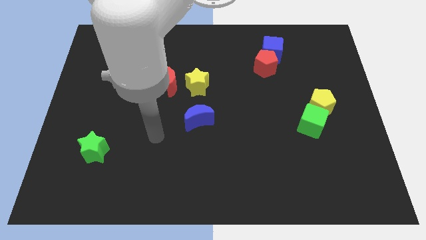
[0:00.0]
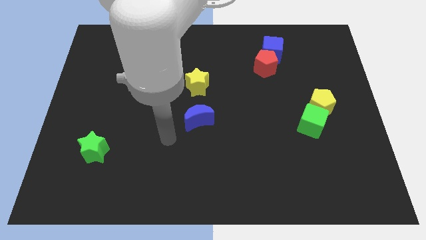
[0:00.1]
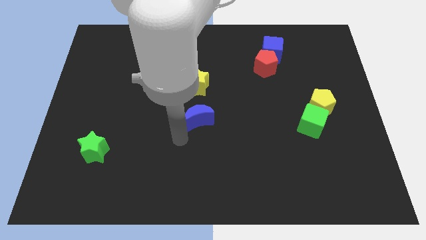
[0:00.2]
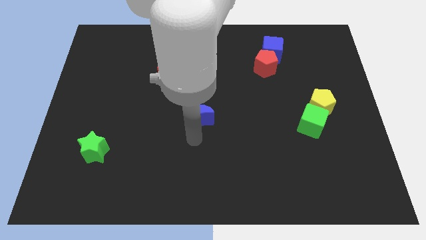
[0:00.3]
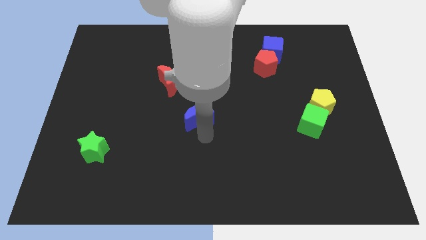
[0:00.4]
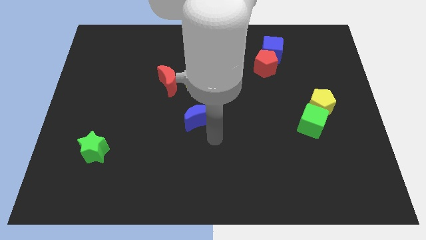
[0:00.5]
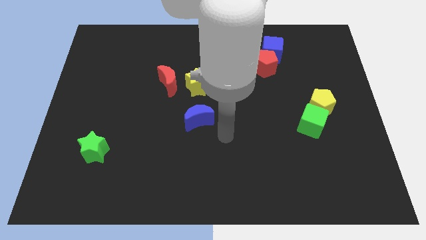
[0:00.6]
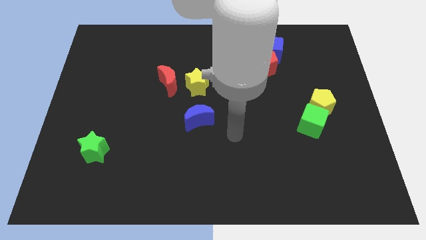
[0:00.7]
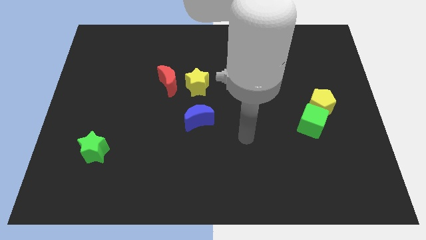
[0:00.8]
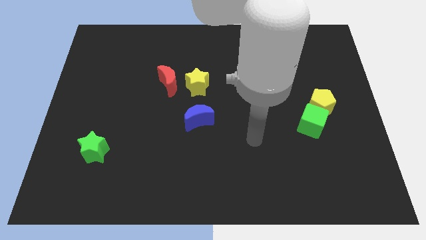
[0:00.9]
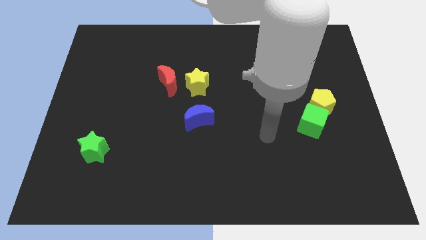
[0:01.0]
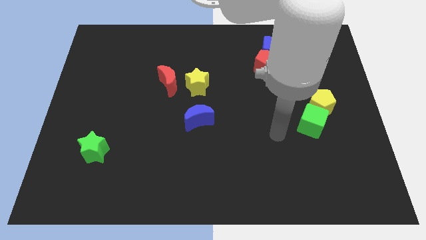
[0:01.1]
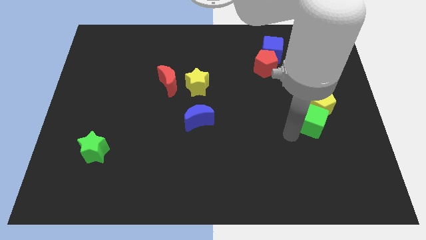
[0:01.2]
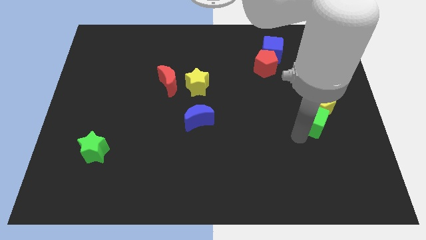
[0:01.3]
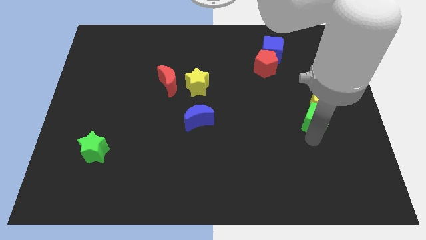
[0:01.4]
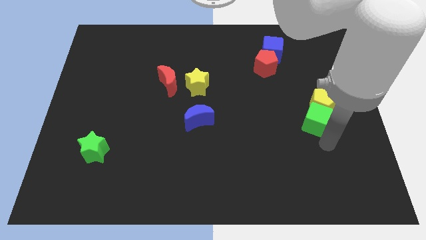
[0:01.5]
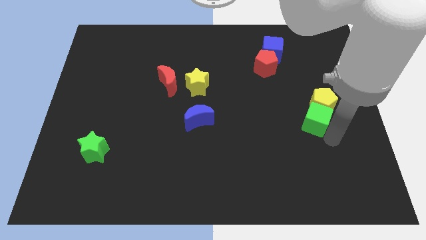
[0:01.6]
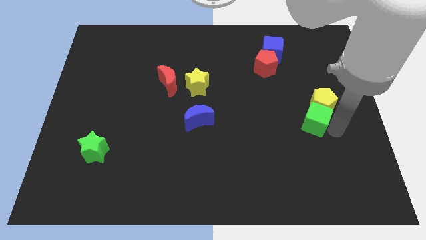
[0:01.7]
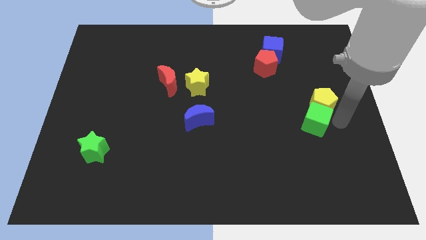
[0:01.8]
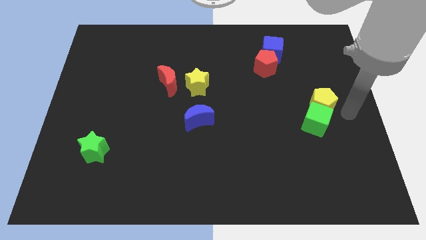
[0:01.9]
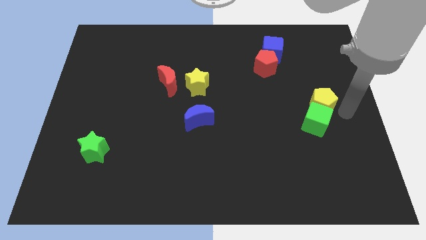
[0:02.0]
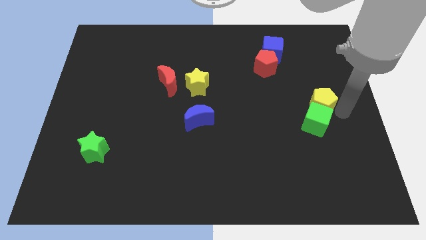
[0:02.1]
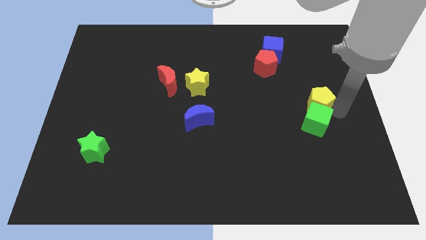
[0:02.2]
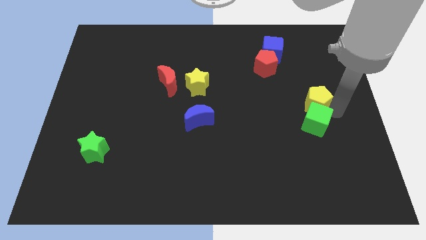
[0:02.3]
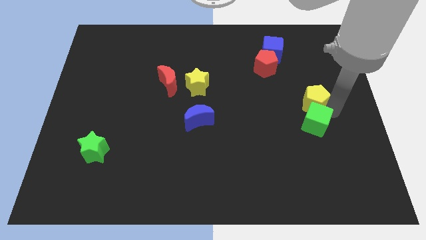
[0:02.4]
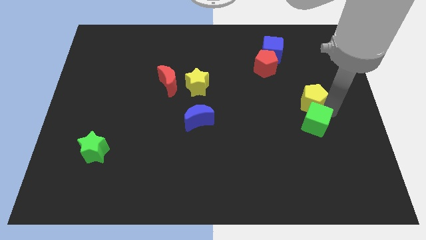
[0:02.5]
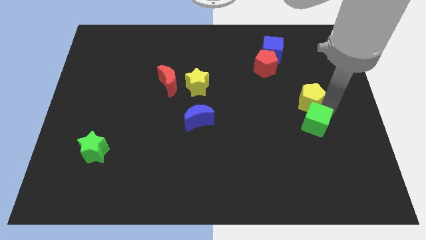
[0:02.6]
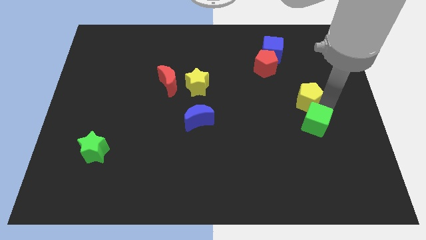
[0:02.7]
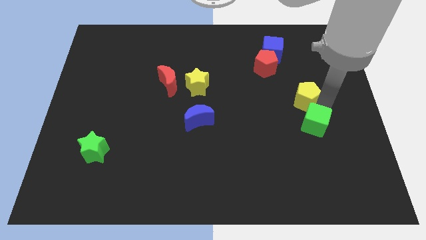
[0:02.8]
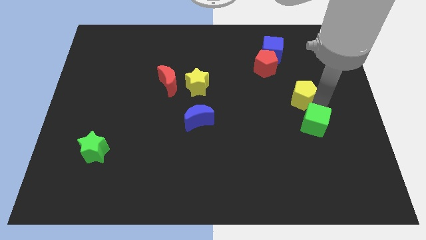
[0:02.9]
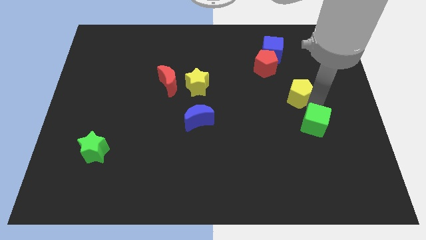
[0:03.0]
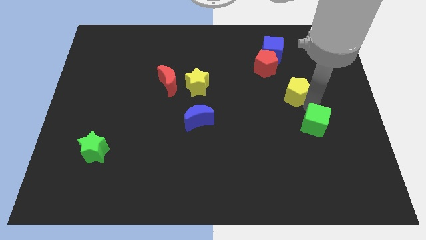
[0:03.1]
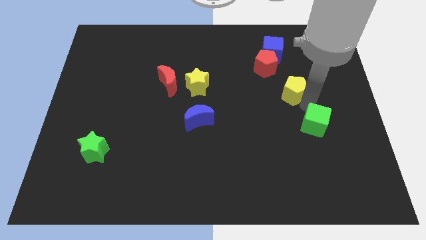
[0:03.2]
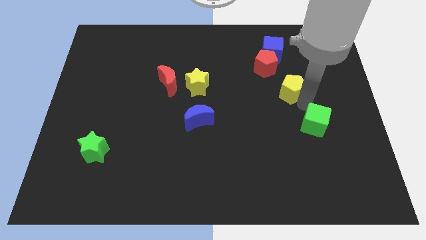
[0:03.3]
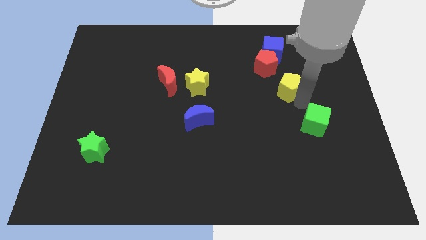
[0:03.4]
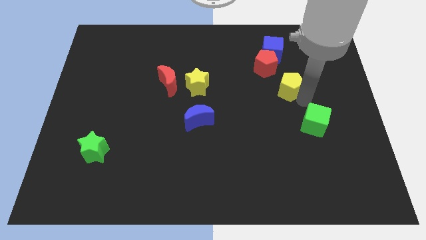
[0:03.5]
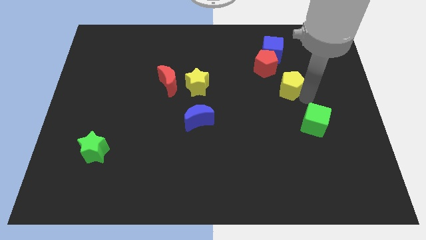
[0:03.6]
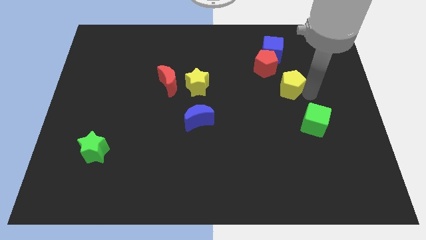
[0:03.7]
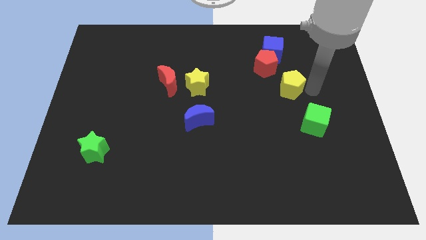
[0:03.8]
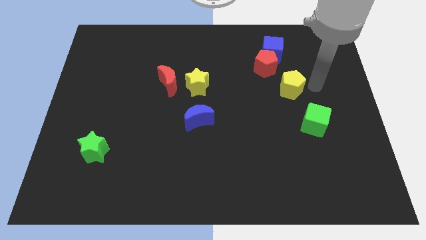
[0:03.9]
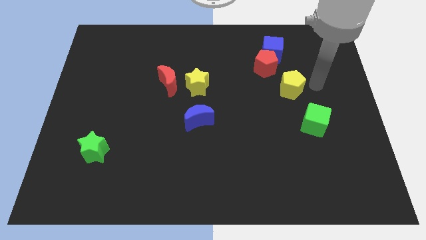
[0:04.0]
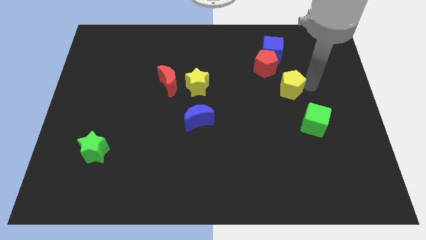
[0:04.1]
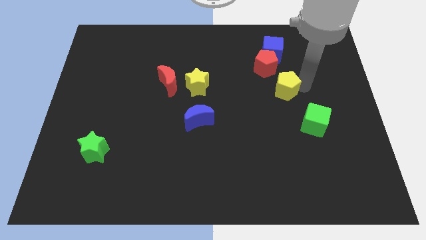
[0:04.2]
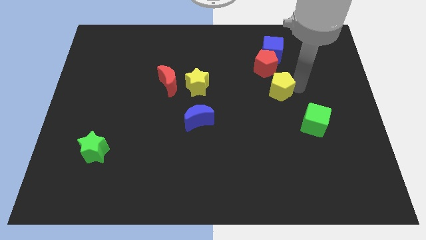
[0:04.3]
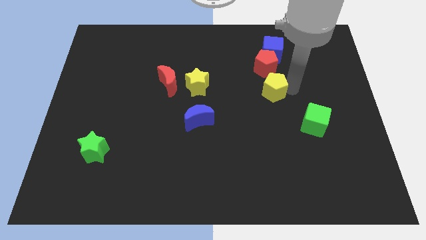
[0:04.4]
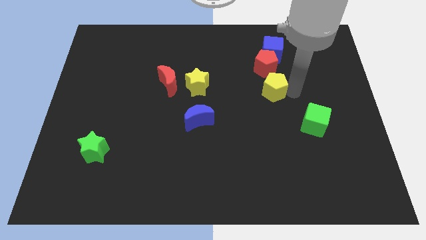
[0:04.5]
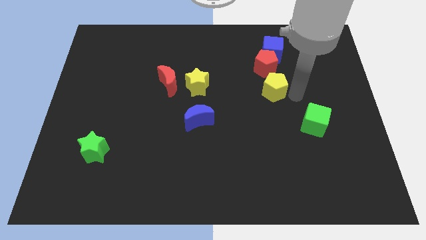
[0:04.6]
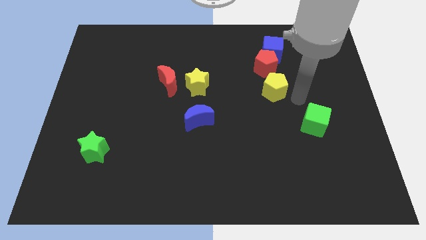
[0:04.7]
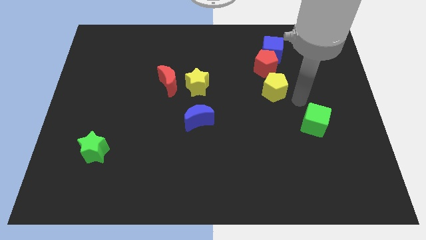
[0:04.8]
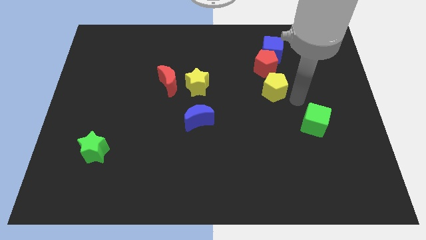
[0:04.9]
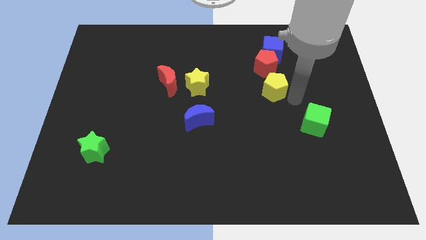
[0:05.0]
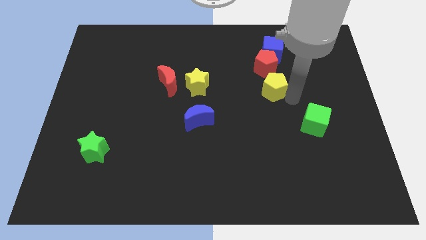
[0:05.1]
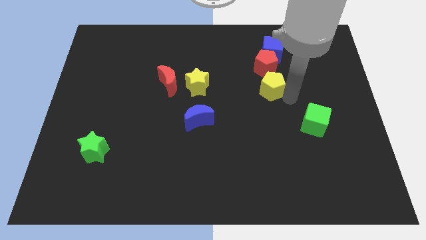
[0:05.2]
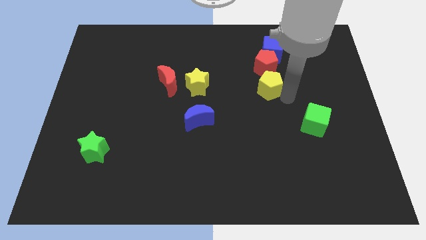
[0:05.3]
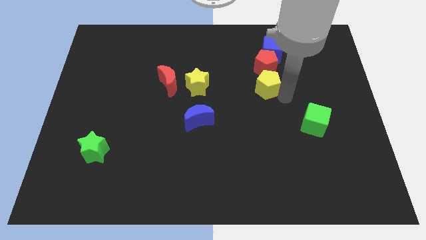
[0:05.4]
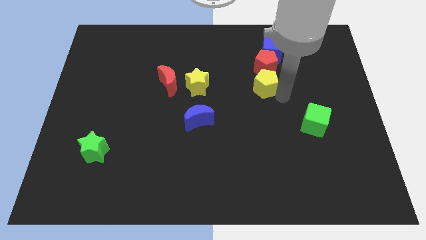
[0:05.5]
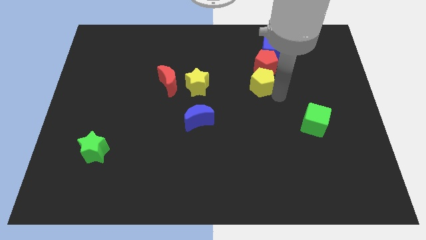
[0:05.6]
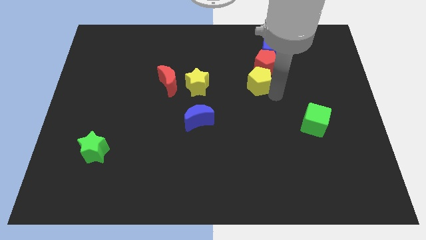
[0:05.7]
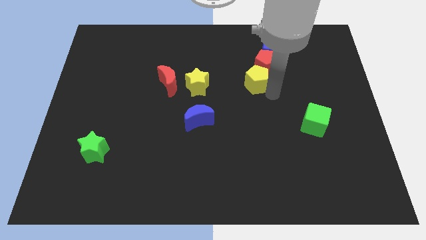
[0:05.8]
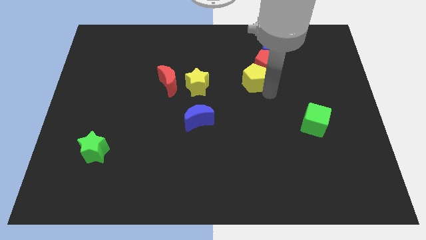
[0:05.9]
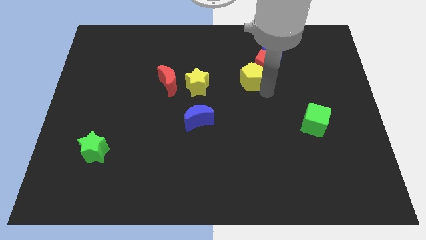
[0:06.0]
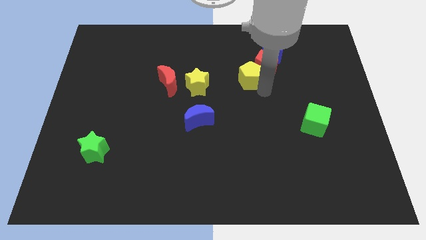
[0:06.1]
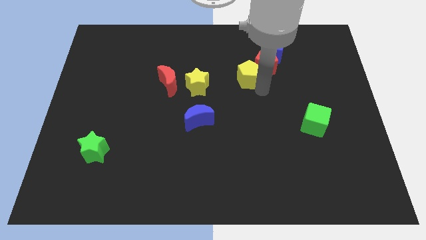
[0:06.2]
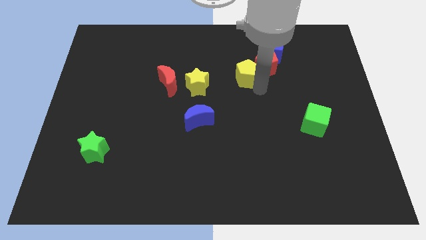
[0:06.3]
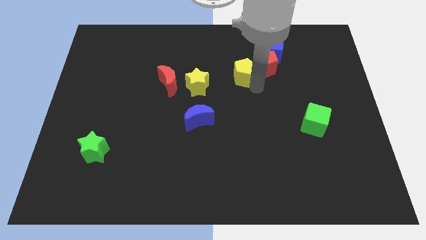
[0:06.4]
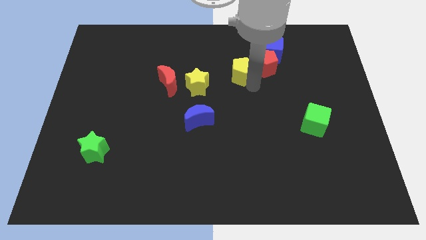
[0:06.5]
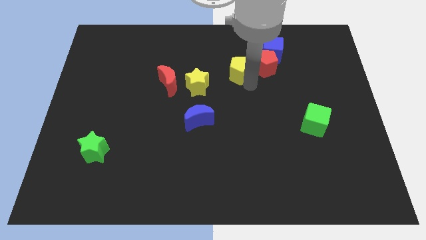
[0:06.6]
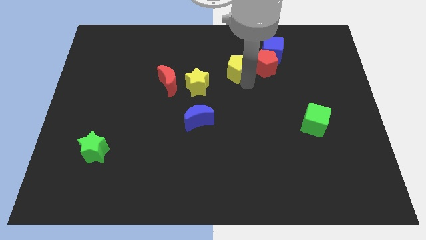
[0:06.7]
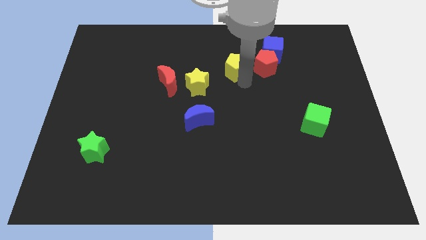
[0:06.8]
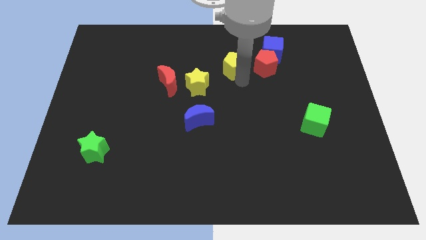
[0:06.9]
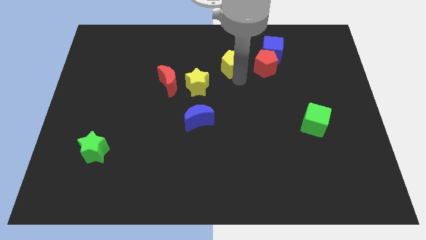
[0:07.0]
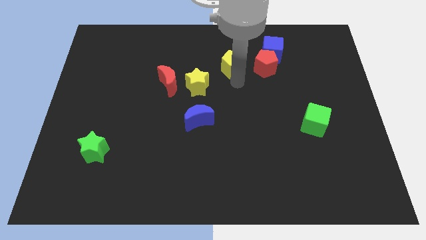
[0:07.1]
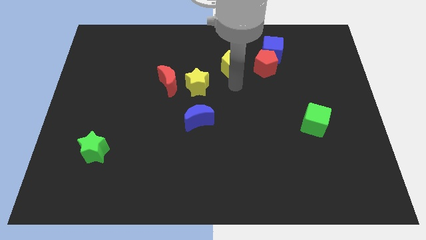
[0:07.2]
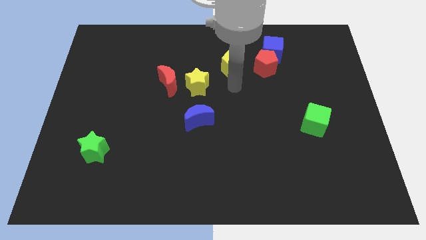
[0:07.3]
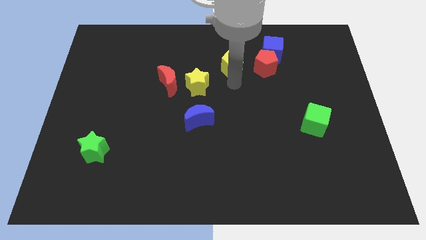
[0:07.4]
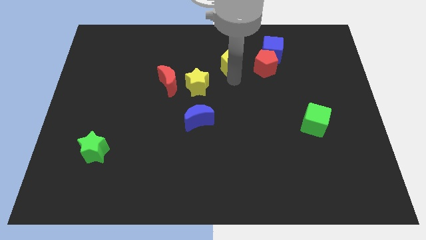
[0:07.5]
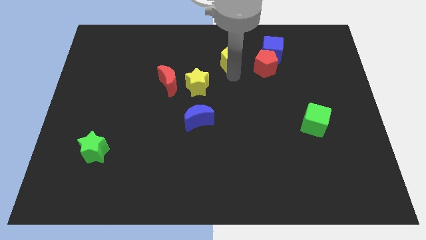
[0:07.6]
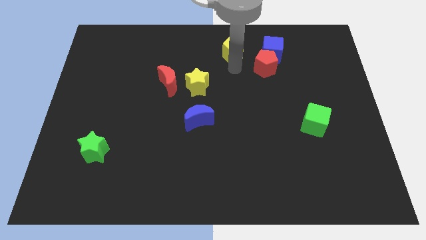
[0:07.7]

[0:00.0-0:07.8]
slide the yellow pentagon to the top
